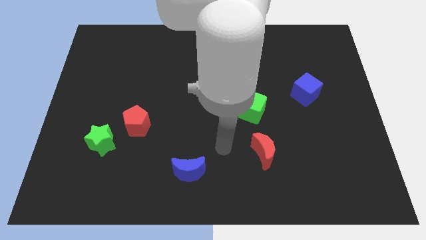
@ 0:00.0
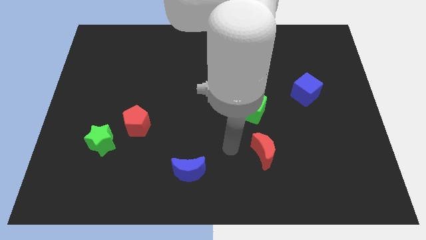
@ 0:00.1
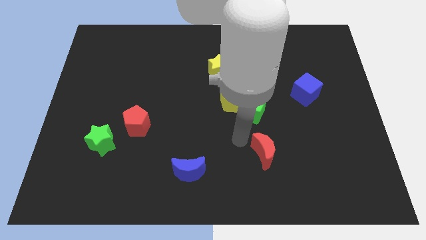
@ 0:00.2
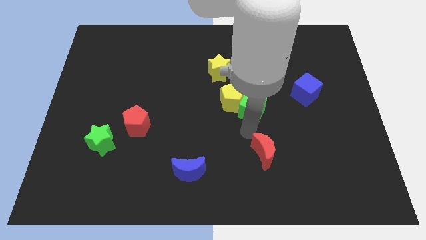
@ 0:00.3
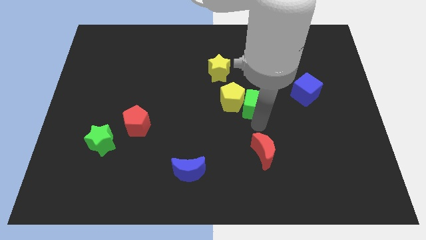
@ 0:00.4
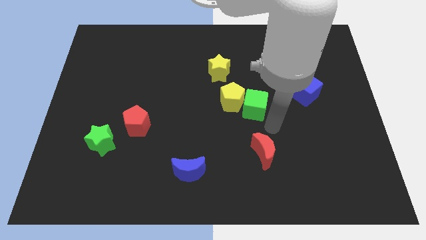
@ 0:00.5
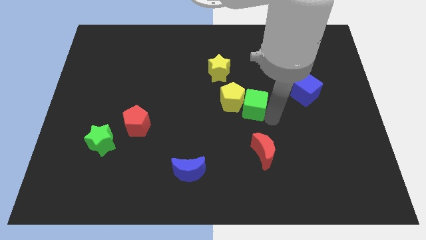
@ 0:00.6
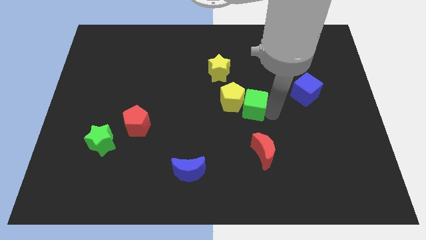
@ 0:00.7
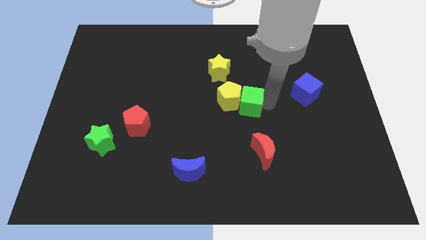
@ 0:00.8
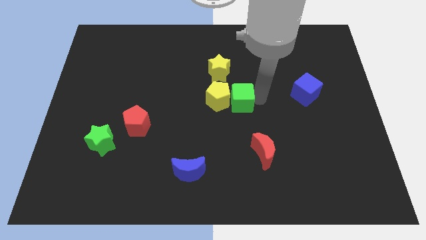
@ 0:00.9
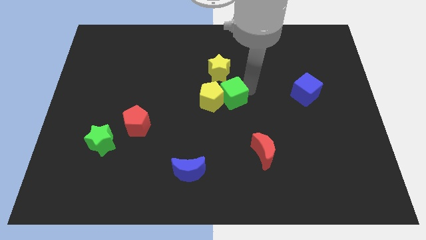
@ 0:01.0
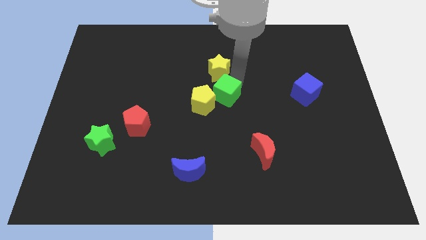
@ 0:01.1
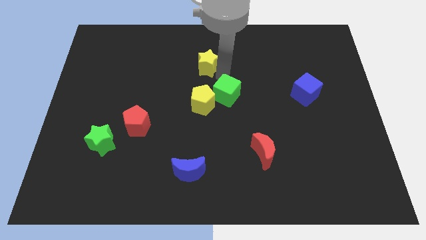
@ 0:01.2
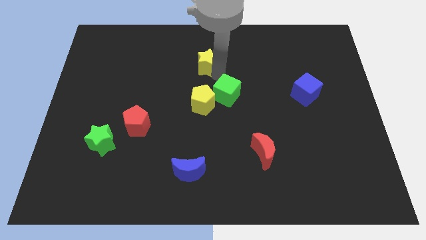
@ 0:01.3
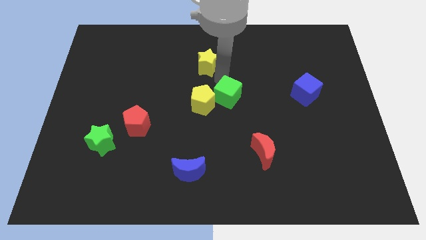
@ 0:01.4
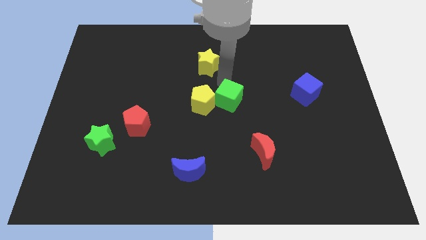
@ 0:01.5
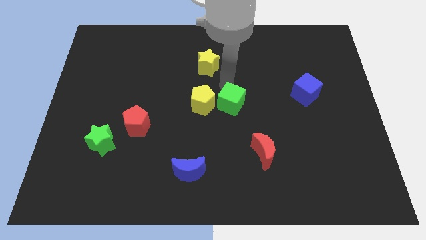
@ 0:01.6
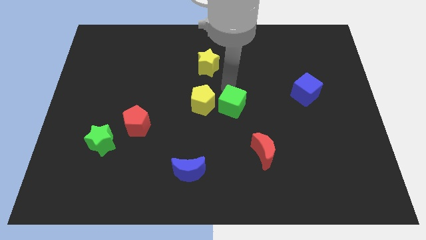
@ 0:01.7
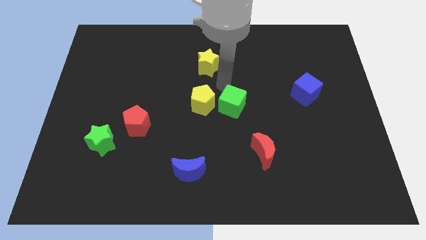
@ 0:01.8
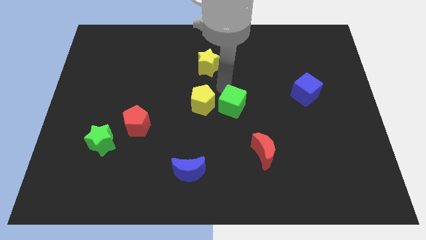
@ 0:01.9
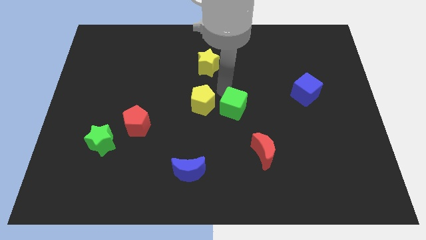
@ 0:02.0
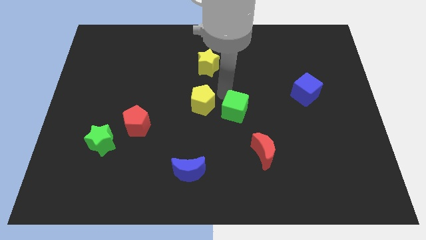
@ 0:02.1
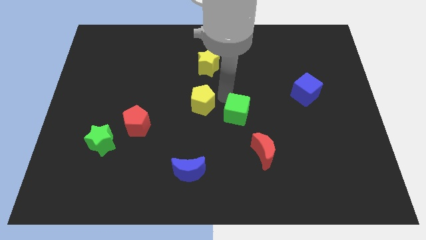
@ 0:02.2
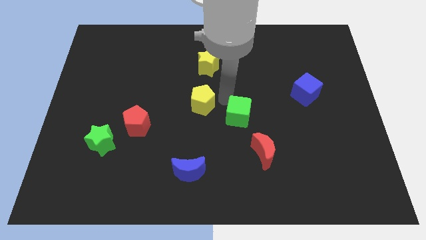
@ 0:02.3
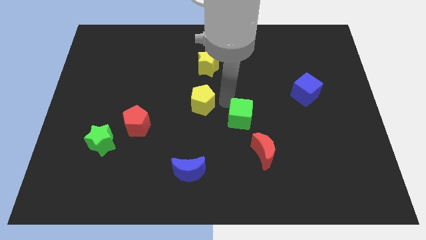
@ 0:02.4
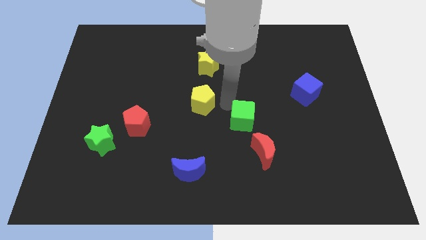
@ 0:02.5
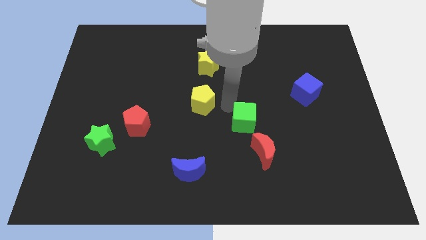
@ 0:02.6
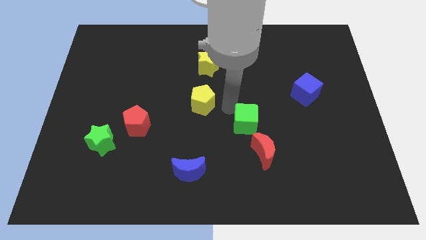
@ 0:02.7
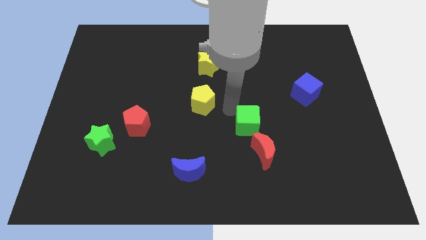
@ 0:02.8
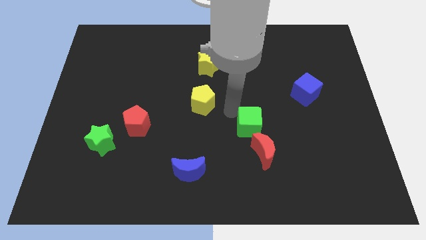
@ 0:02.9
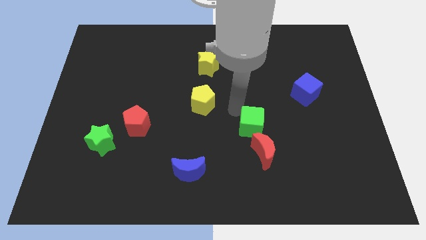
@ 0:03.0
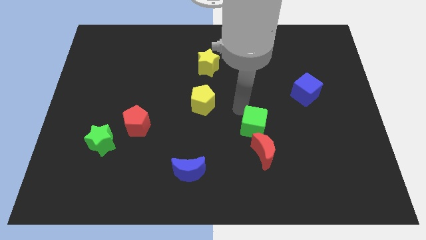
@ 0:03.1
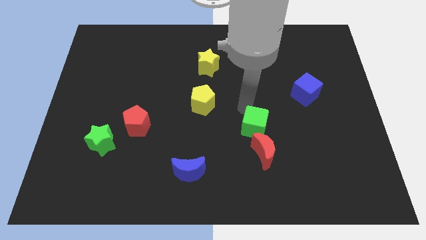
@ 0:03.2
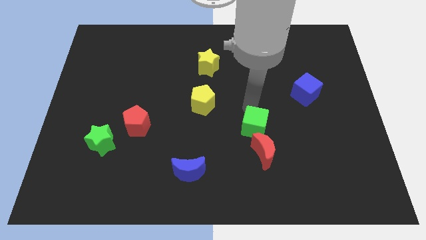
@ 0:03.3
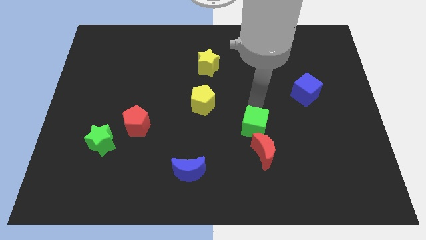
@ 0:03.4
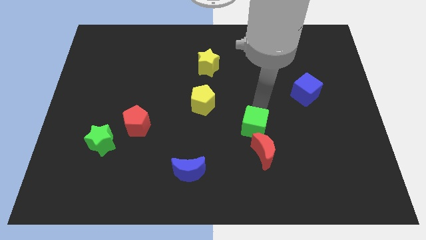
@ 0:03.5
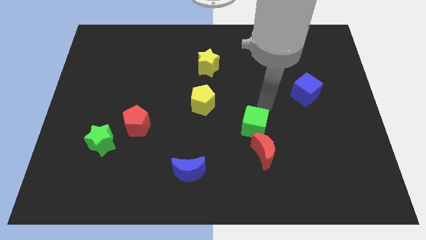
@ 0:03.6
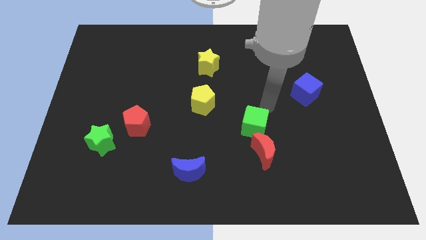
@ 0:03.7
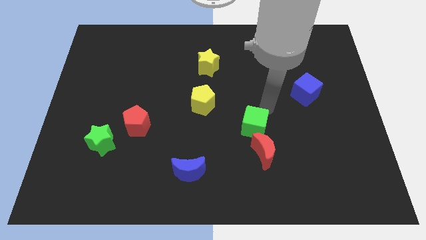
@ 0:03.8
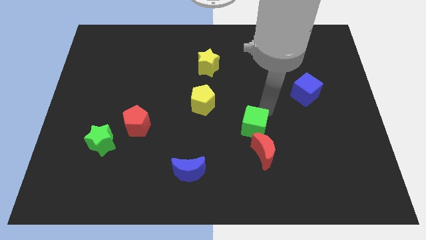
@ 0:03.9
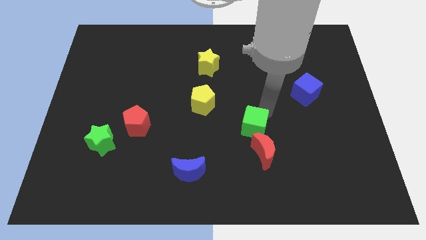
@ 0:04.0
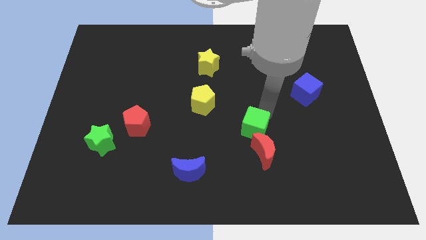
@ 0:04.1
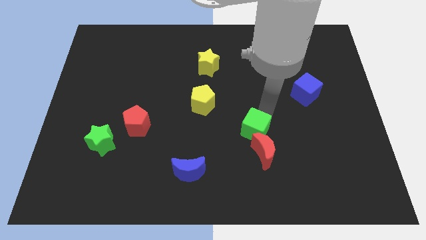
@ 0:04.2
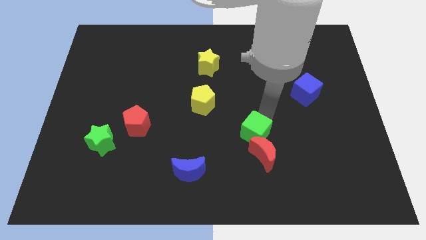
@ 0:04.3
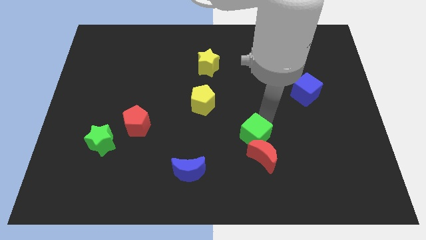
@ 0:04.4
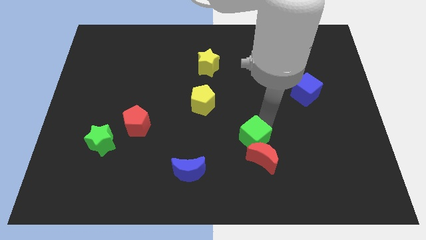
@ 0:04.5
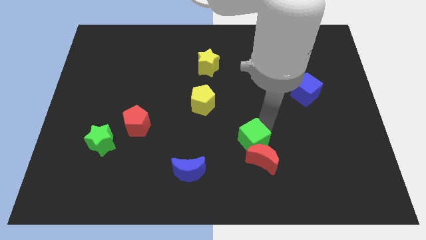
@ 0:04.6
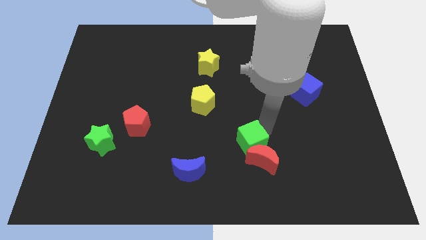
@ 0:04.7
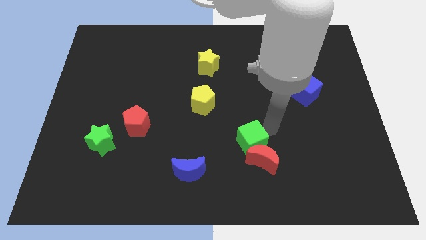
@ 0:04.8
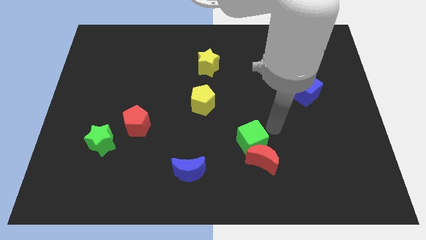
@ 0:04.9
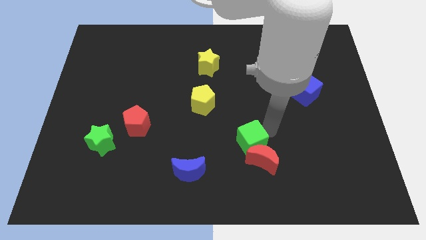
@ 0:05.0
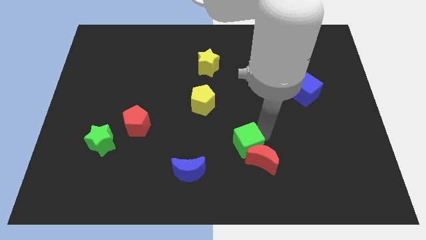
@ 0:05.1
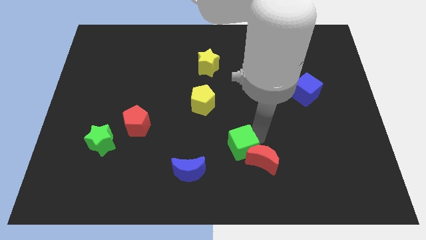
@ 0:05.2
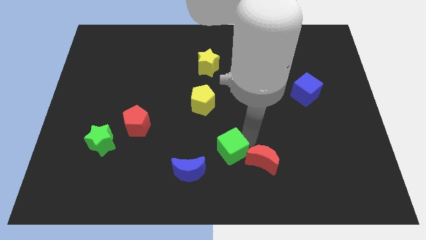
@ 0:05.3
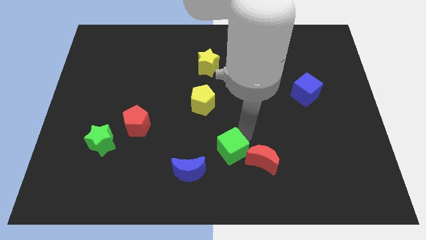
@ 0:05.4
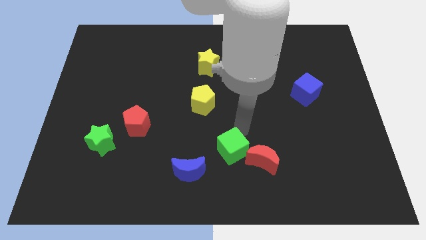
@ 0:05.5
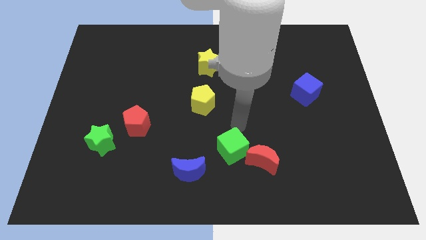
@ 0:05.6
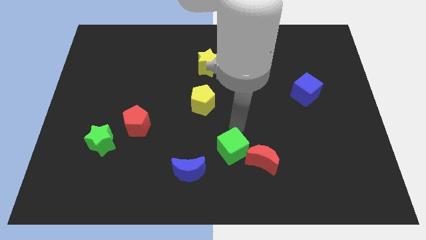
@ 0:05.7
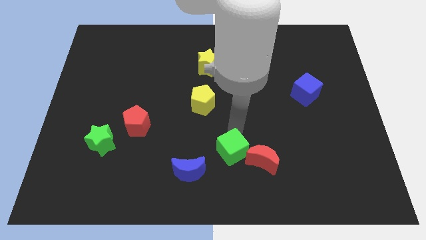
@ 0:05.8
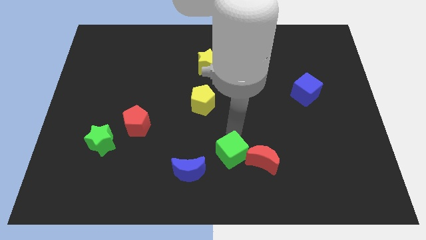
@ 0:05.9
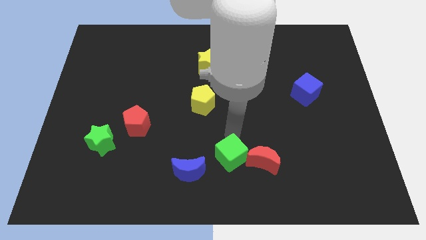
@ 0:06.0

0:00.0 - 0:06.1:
push the green cube to the bottom

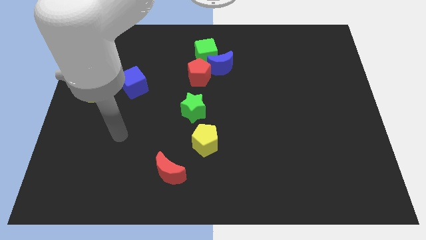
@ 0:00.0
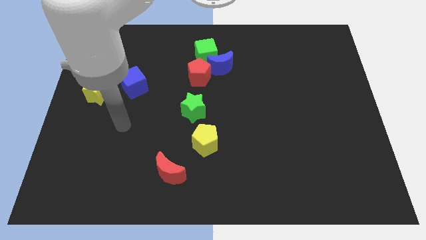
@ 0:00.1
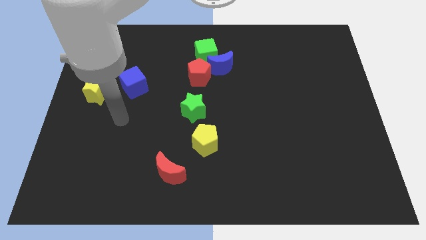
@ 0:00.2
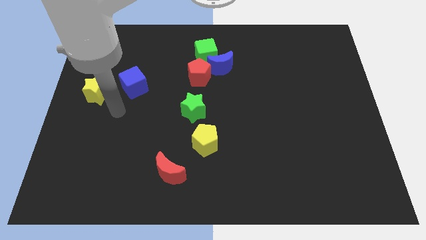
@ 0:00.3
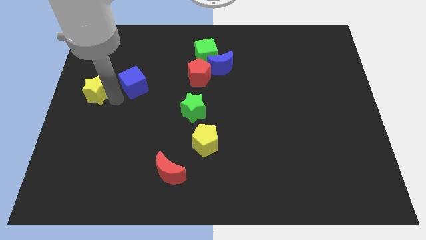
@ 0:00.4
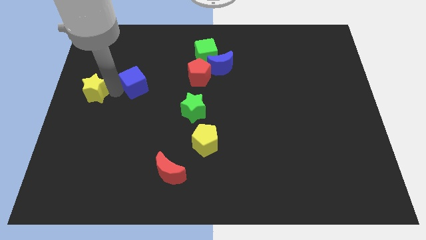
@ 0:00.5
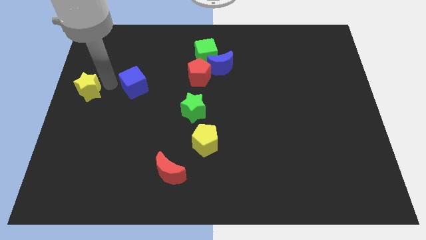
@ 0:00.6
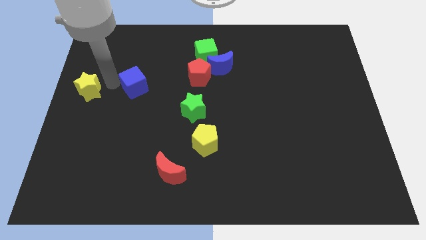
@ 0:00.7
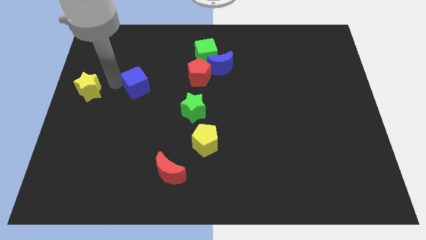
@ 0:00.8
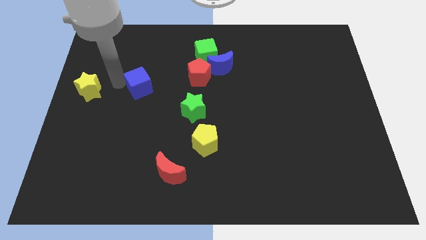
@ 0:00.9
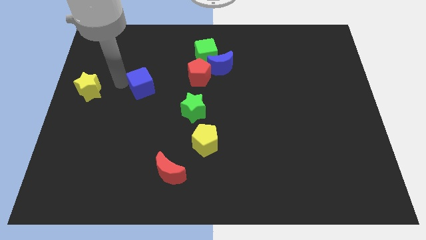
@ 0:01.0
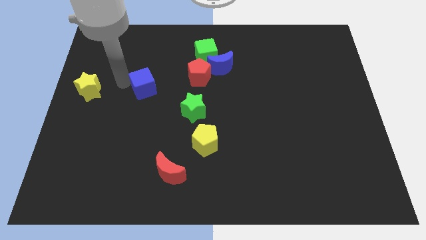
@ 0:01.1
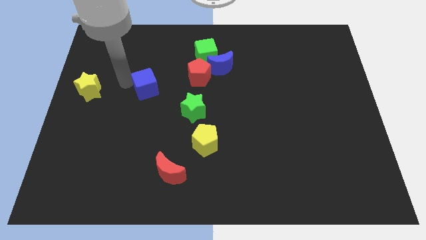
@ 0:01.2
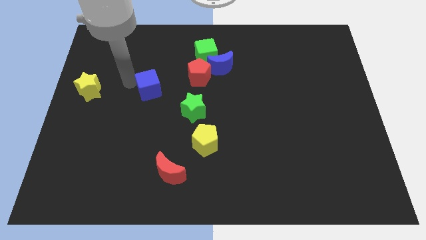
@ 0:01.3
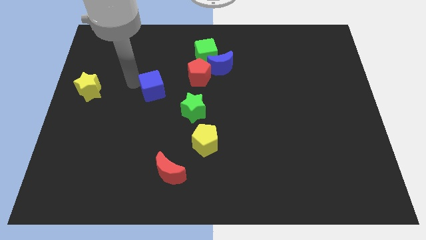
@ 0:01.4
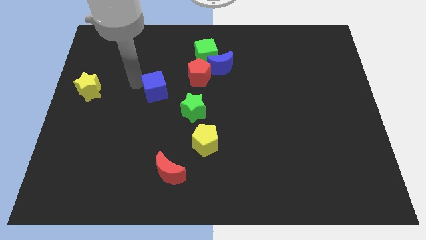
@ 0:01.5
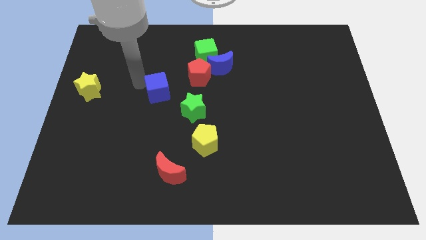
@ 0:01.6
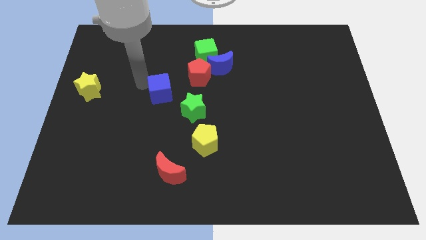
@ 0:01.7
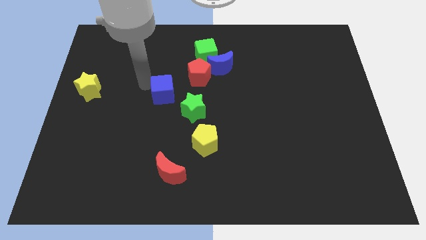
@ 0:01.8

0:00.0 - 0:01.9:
move the blue cube to the middle
